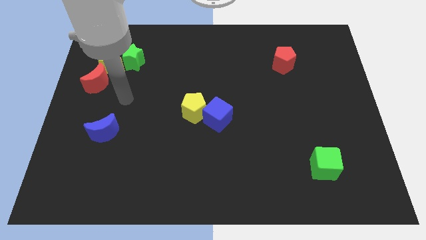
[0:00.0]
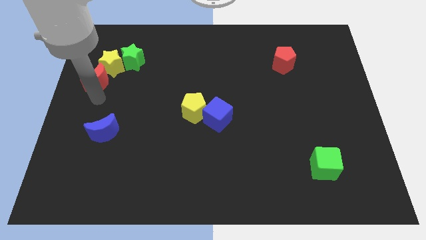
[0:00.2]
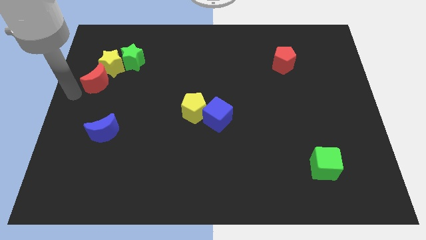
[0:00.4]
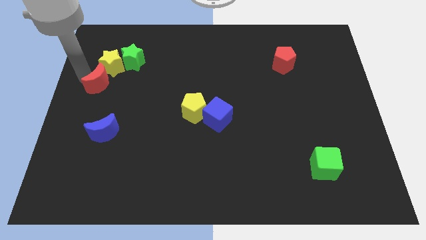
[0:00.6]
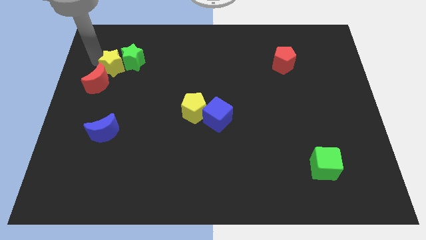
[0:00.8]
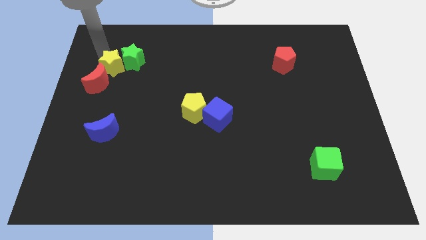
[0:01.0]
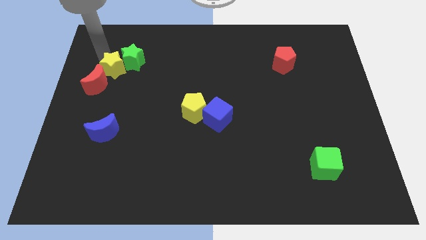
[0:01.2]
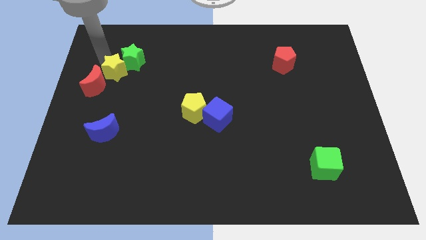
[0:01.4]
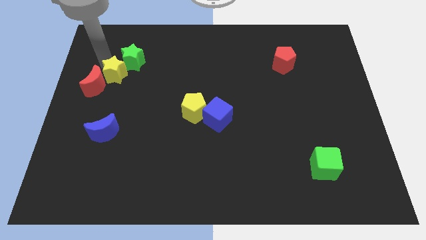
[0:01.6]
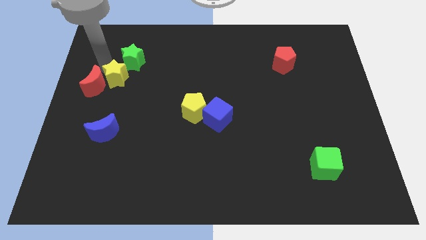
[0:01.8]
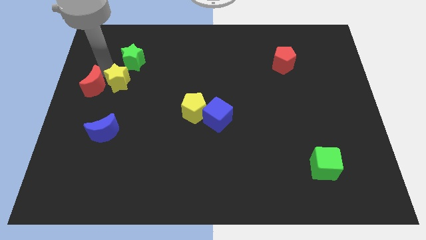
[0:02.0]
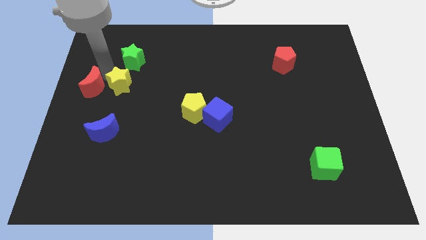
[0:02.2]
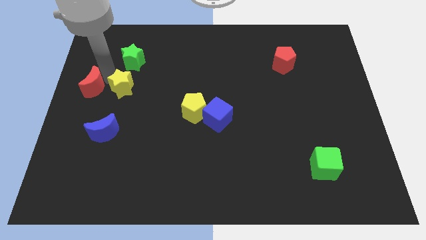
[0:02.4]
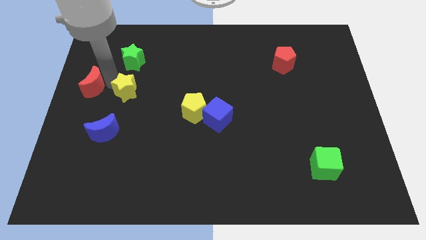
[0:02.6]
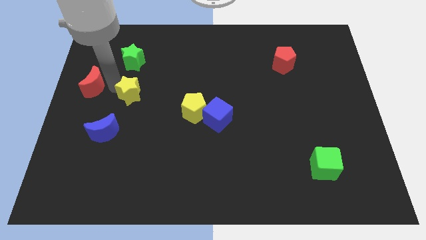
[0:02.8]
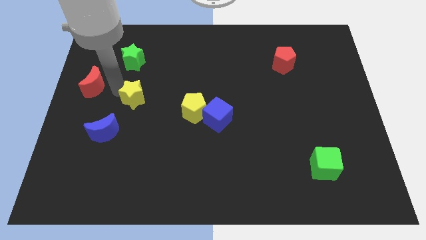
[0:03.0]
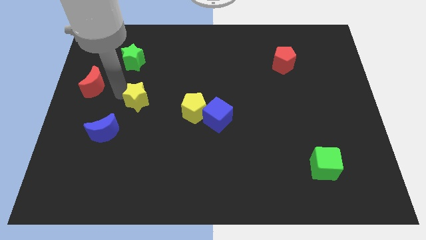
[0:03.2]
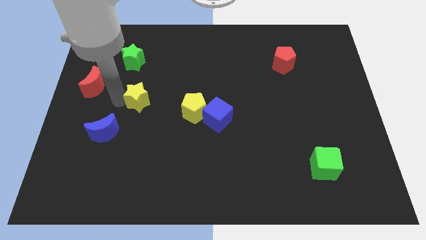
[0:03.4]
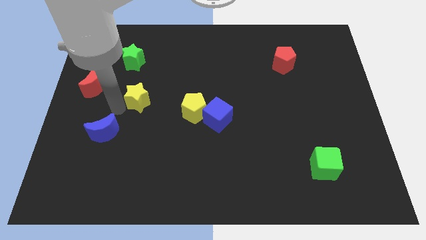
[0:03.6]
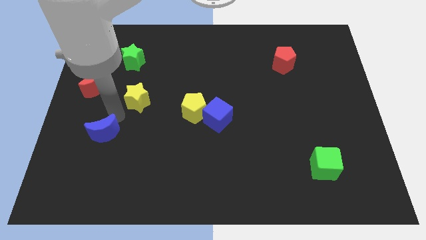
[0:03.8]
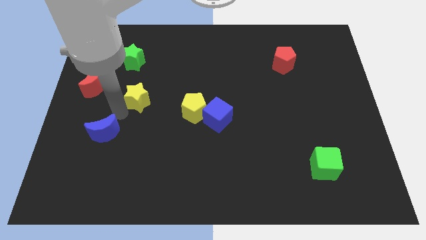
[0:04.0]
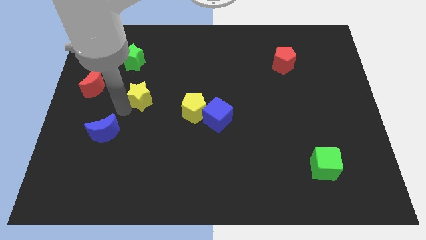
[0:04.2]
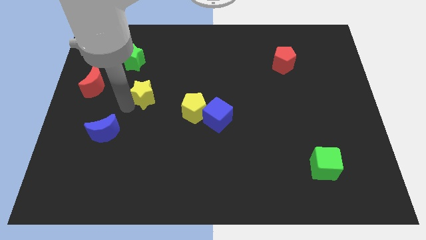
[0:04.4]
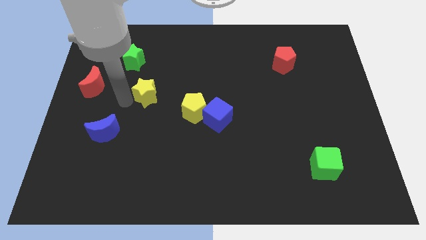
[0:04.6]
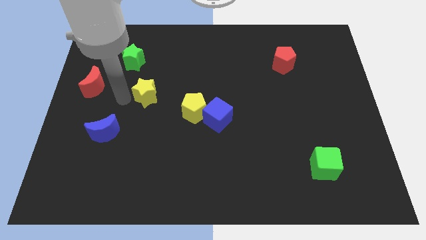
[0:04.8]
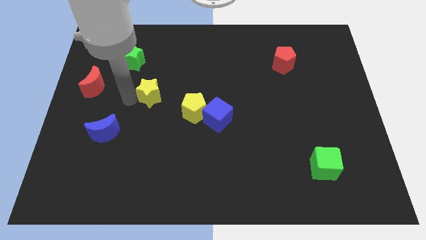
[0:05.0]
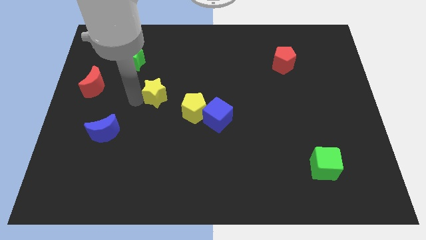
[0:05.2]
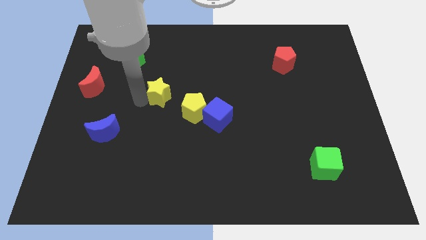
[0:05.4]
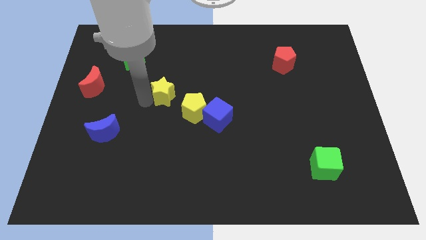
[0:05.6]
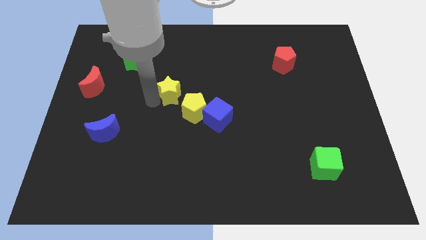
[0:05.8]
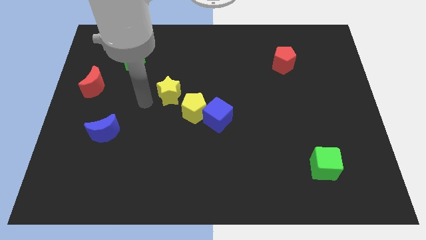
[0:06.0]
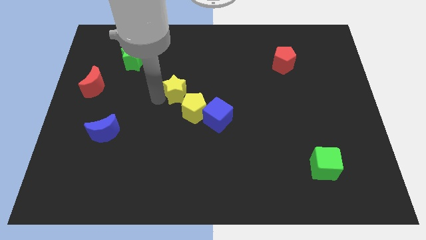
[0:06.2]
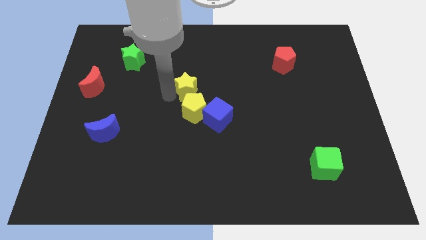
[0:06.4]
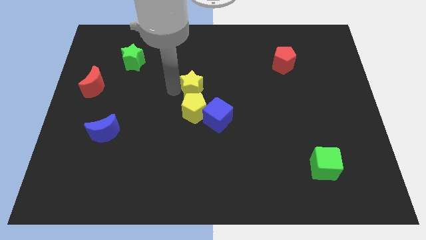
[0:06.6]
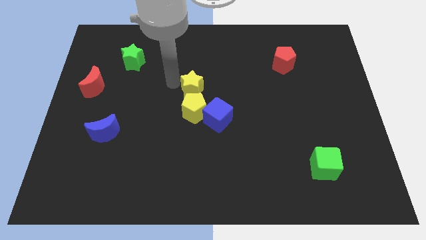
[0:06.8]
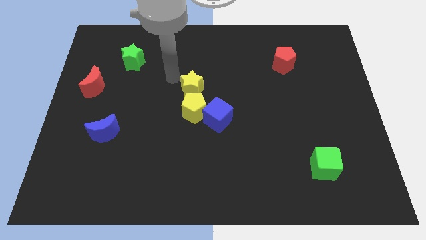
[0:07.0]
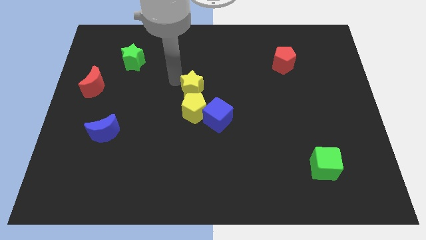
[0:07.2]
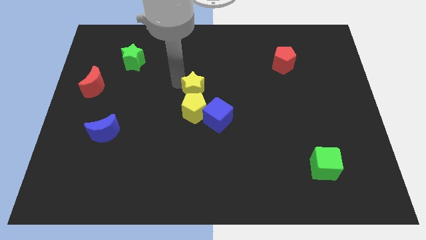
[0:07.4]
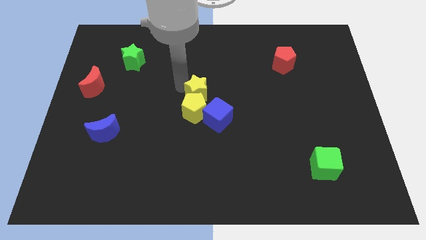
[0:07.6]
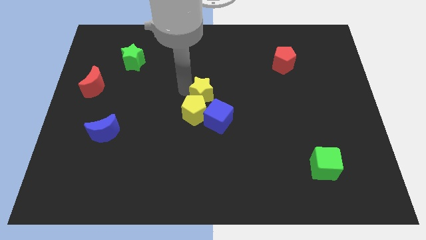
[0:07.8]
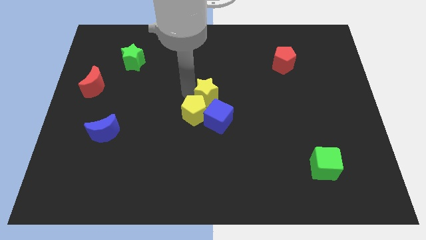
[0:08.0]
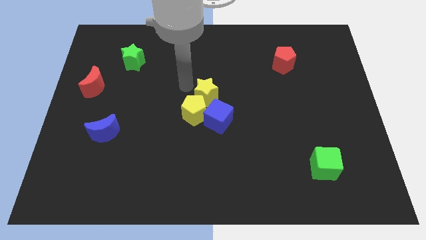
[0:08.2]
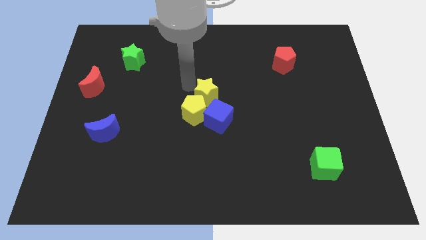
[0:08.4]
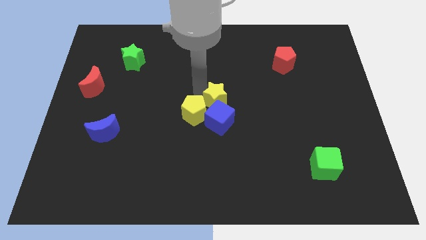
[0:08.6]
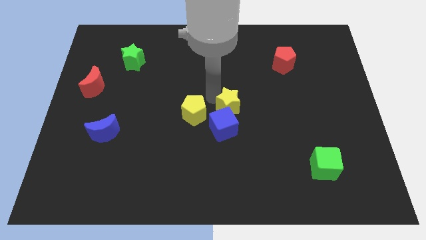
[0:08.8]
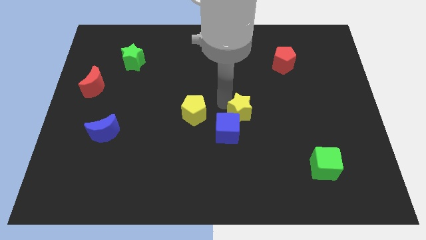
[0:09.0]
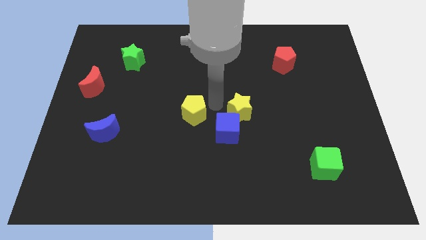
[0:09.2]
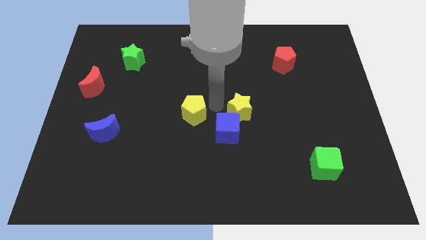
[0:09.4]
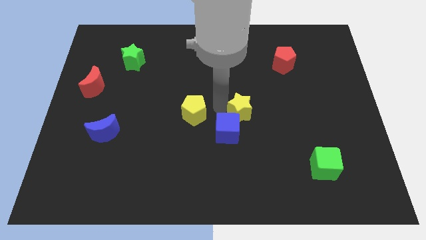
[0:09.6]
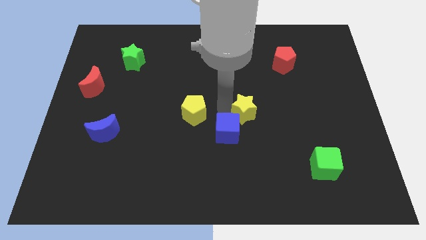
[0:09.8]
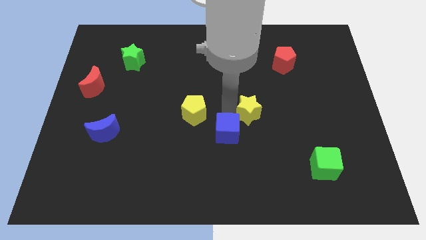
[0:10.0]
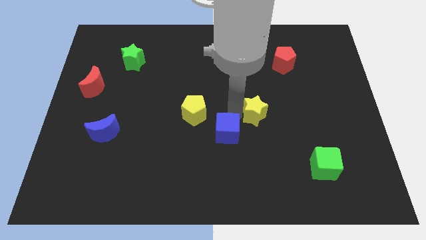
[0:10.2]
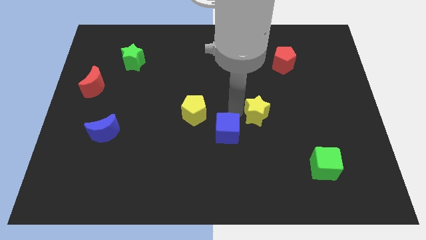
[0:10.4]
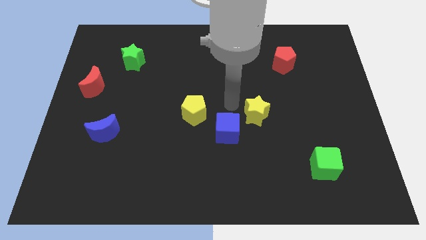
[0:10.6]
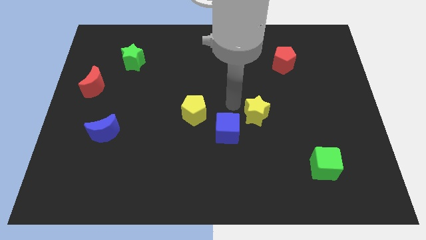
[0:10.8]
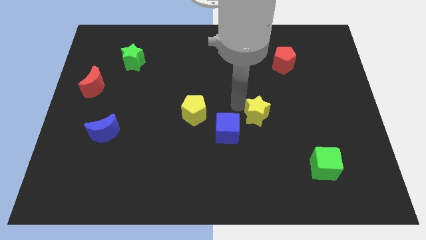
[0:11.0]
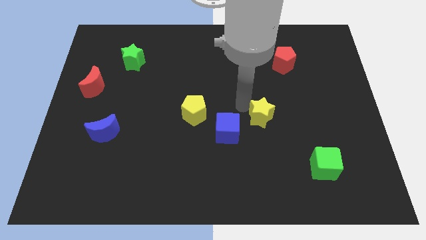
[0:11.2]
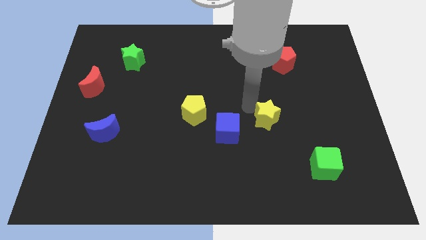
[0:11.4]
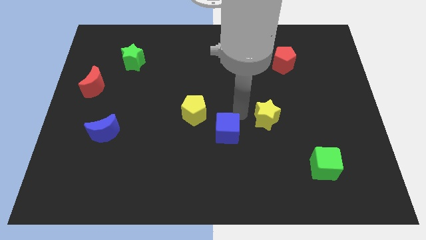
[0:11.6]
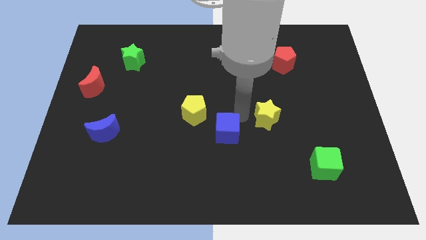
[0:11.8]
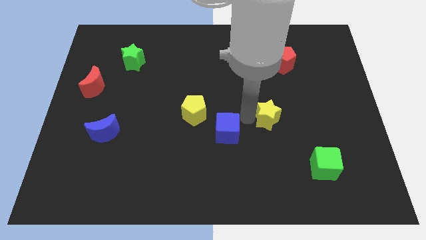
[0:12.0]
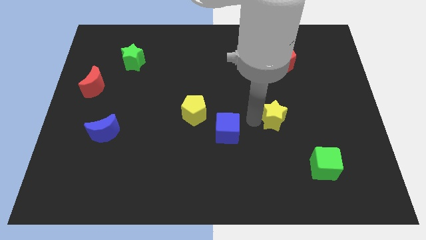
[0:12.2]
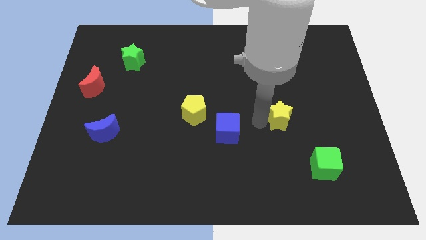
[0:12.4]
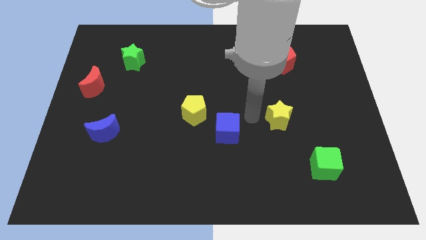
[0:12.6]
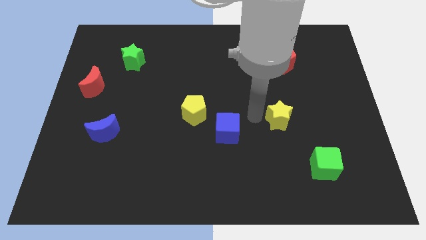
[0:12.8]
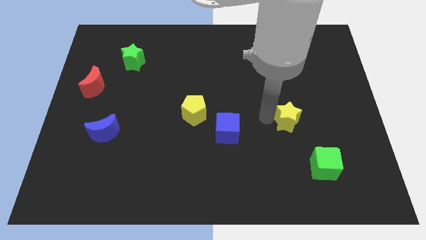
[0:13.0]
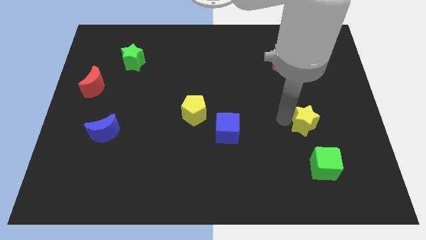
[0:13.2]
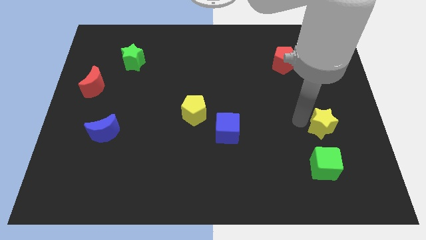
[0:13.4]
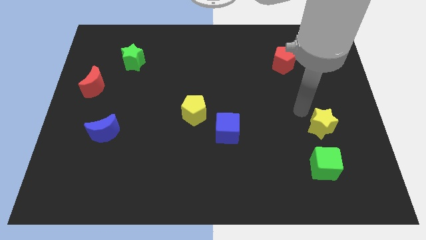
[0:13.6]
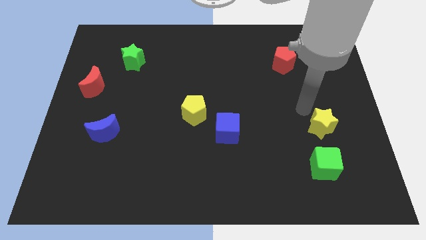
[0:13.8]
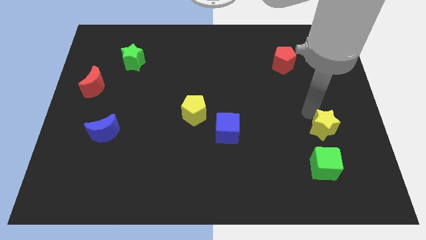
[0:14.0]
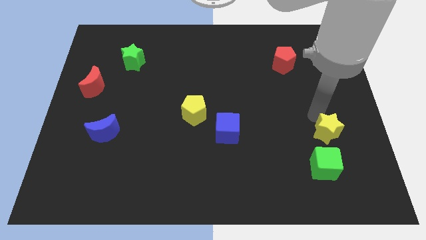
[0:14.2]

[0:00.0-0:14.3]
move the yellow star to the top right side of the green cube

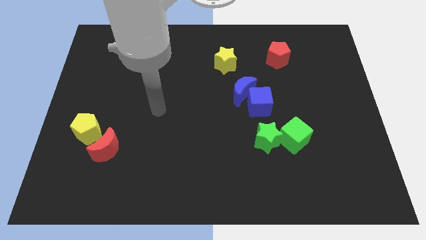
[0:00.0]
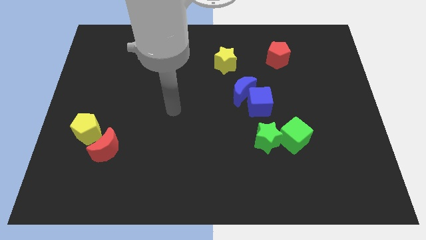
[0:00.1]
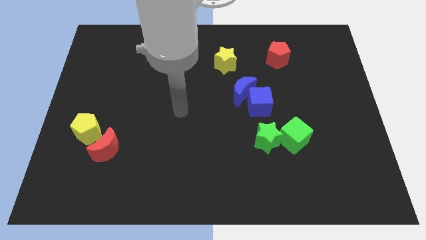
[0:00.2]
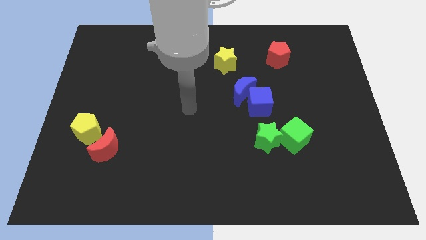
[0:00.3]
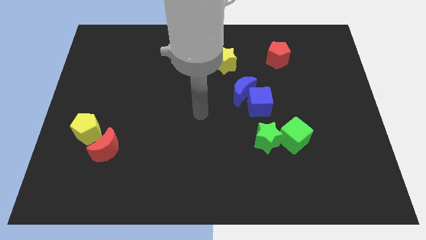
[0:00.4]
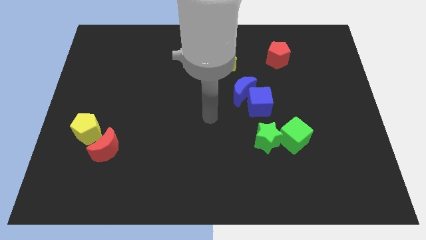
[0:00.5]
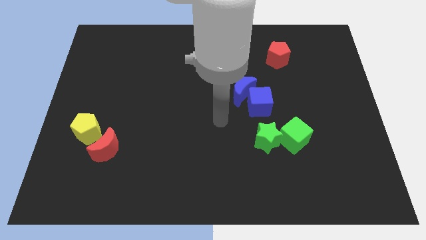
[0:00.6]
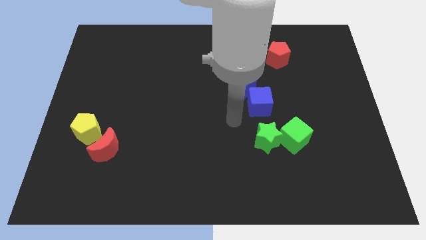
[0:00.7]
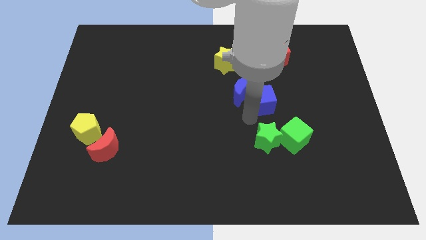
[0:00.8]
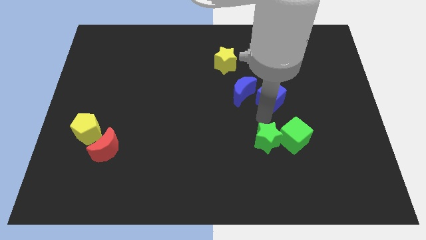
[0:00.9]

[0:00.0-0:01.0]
slide the green cube to the bottom side of the blue cube
